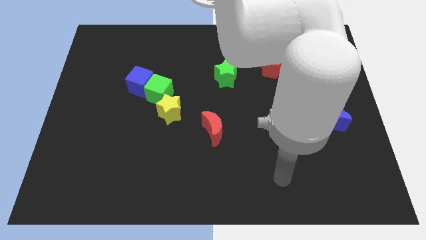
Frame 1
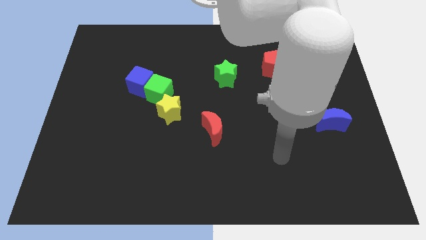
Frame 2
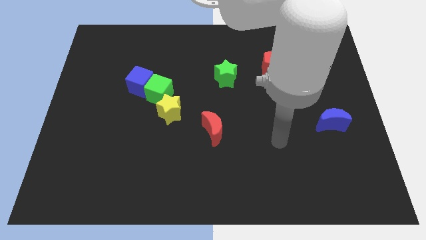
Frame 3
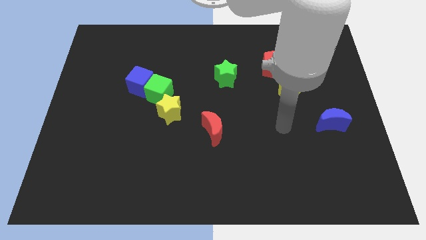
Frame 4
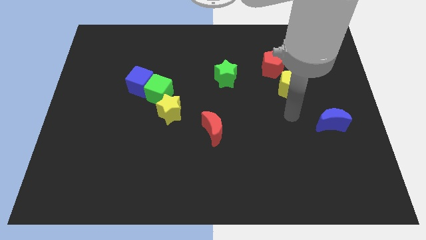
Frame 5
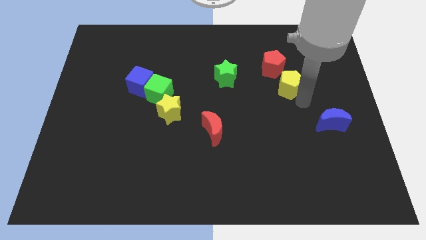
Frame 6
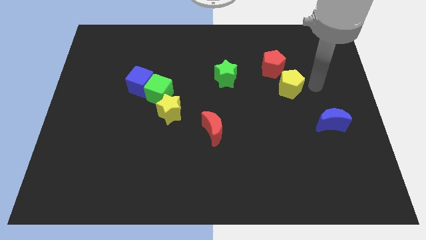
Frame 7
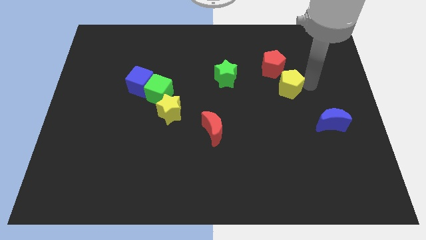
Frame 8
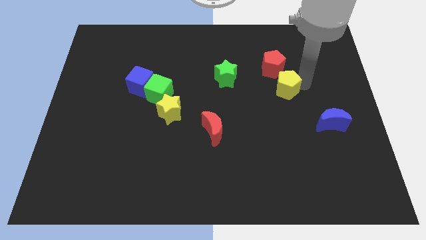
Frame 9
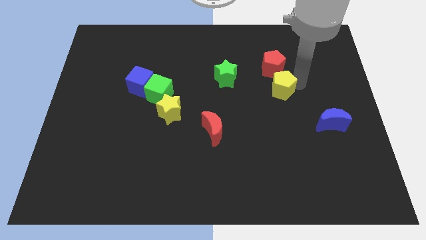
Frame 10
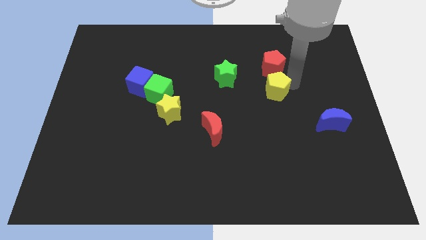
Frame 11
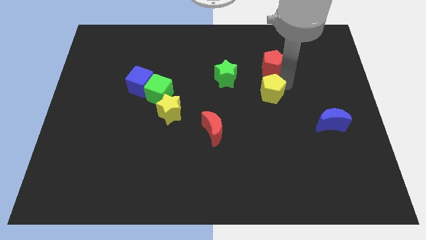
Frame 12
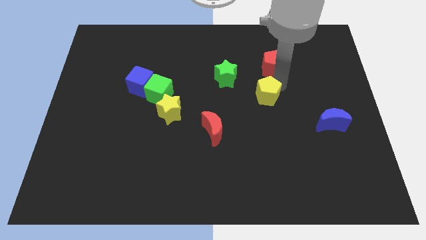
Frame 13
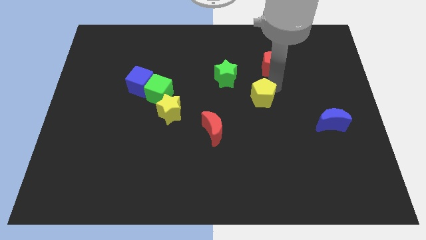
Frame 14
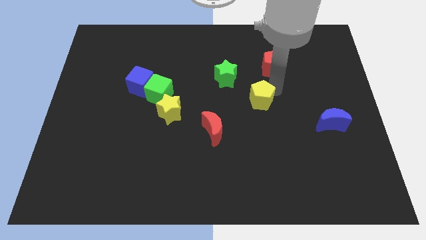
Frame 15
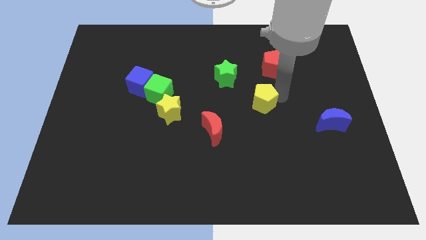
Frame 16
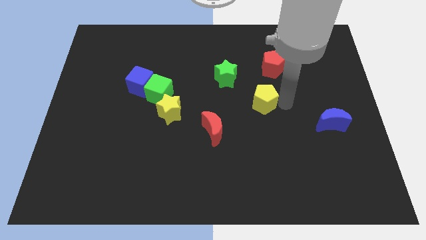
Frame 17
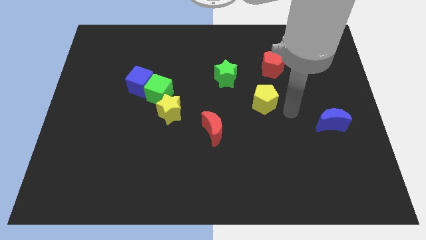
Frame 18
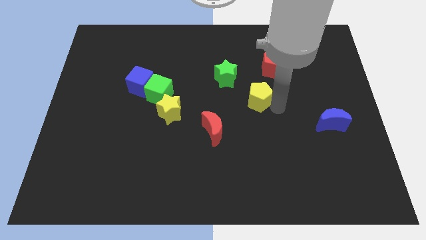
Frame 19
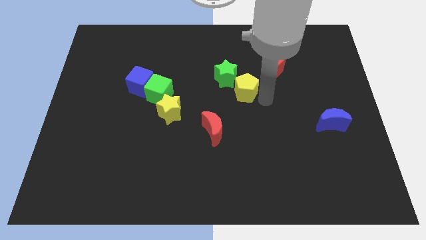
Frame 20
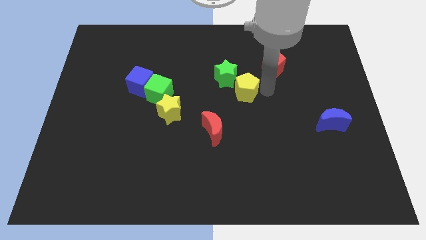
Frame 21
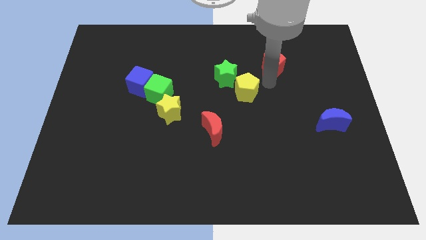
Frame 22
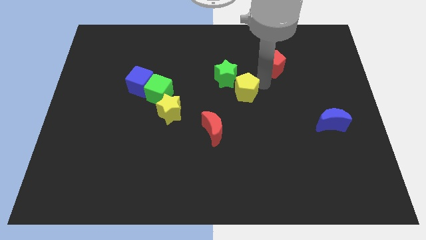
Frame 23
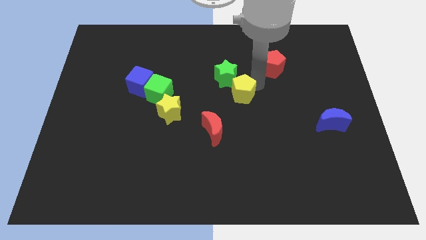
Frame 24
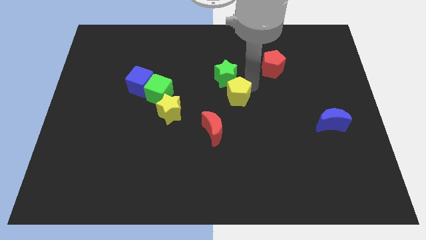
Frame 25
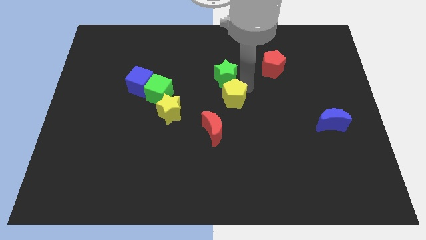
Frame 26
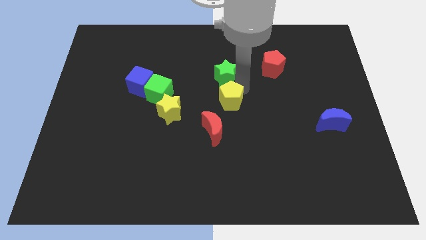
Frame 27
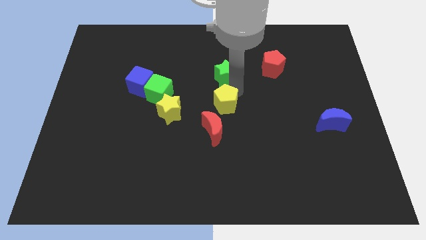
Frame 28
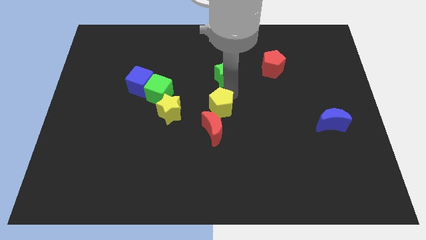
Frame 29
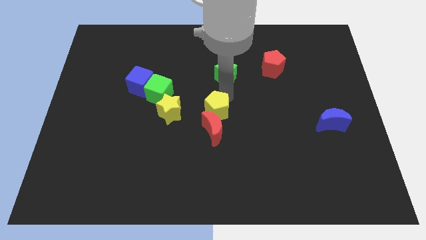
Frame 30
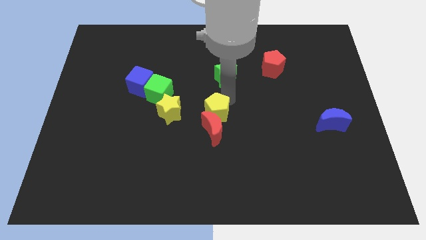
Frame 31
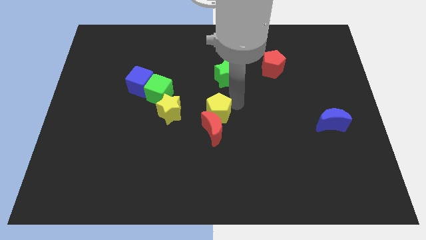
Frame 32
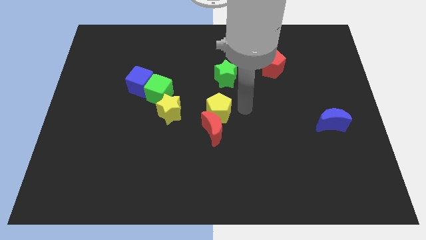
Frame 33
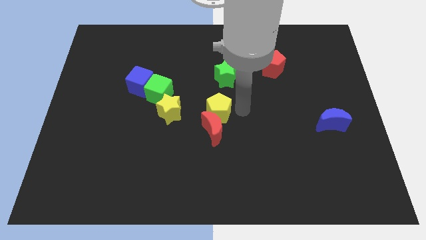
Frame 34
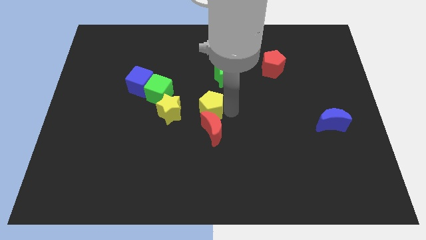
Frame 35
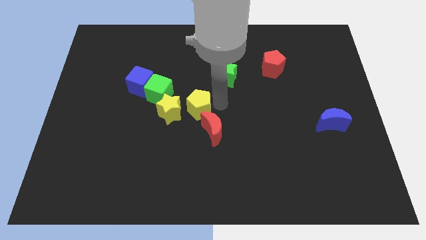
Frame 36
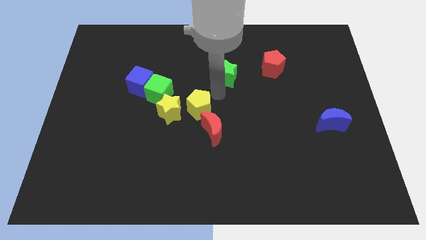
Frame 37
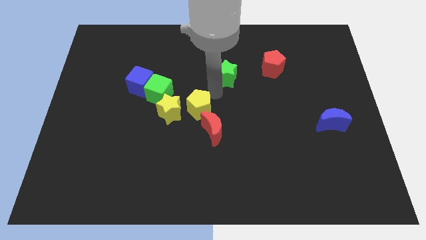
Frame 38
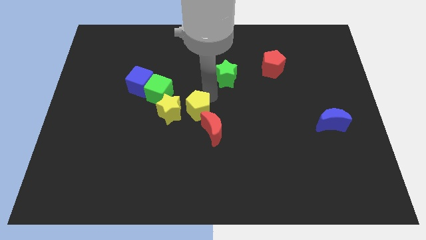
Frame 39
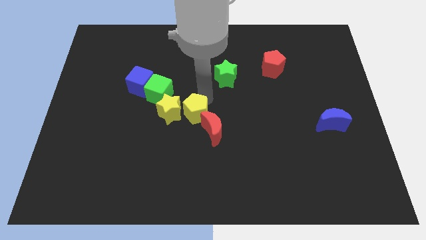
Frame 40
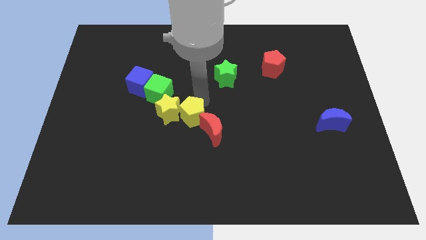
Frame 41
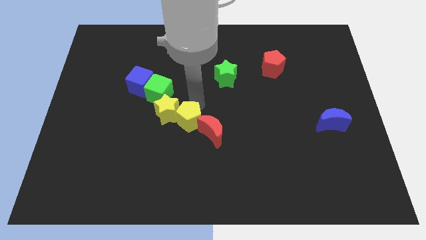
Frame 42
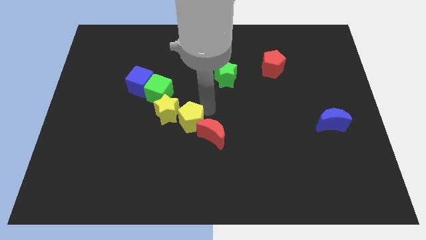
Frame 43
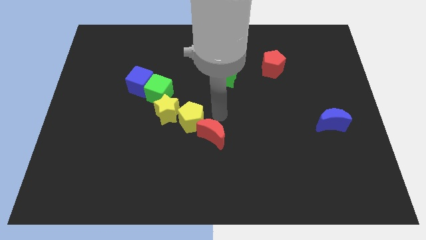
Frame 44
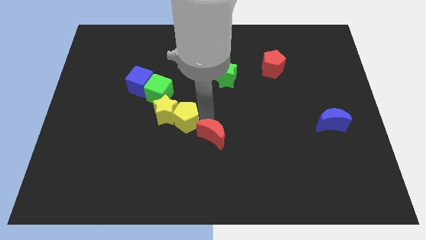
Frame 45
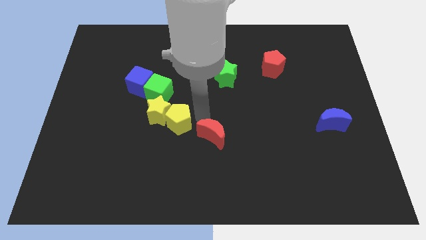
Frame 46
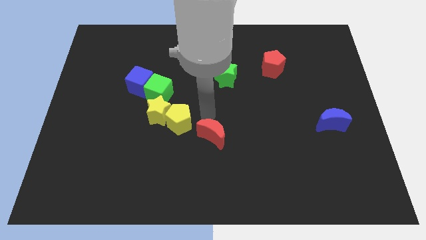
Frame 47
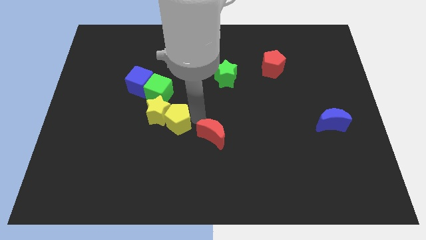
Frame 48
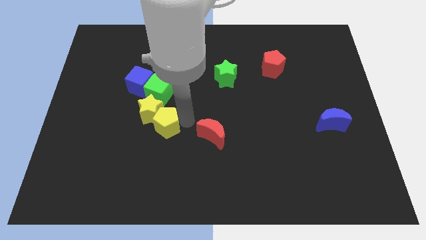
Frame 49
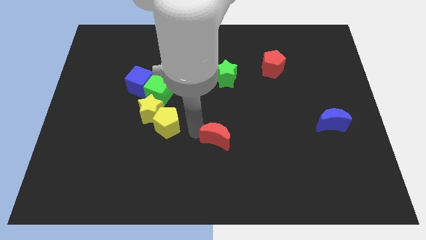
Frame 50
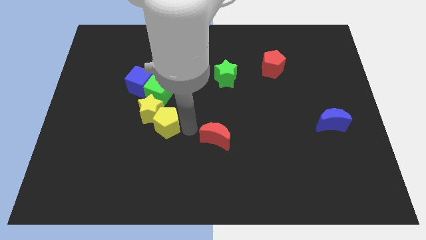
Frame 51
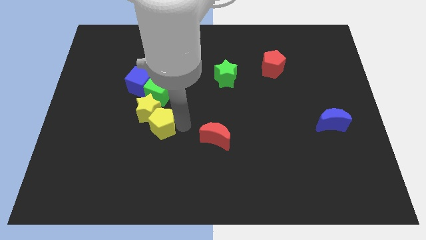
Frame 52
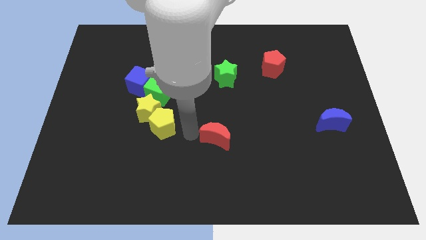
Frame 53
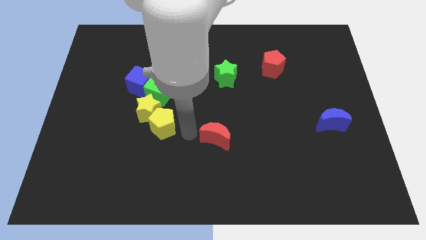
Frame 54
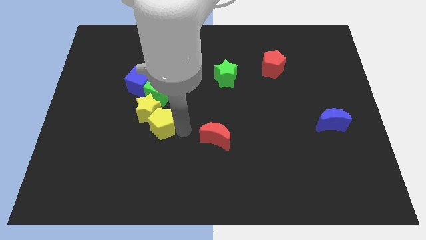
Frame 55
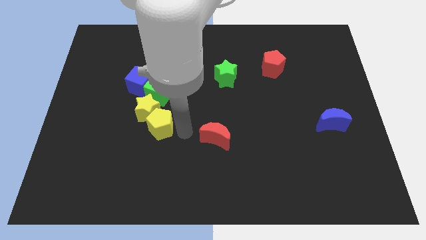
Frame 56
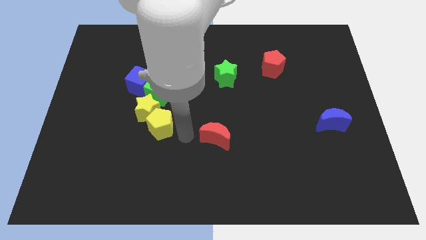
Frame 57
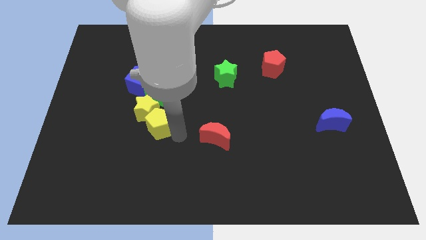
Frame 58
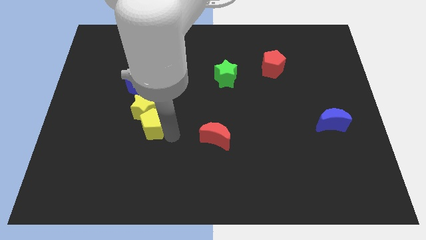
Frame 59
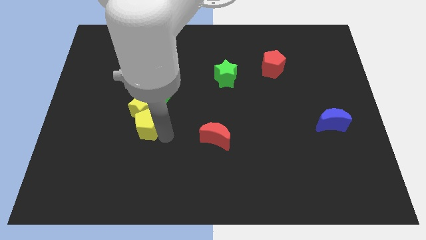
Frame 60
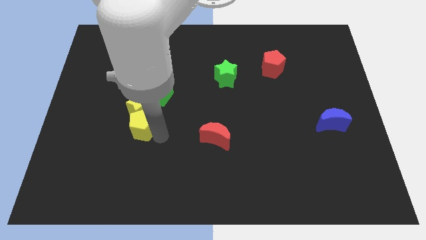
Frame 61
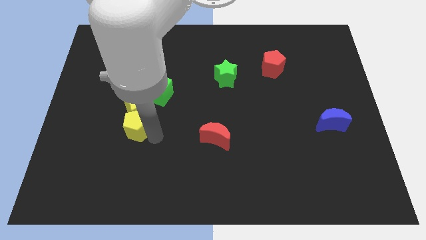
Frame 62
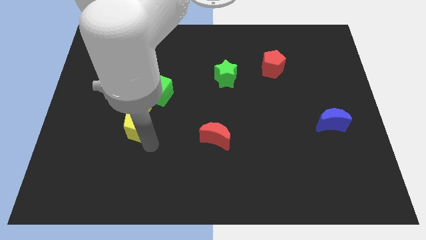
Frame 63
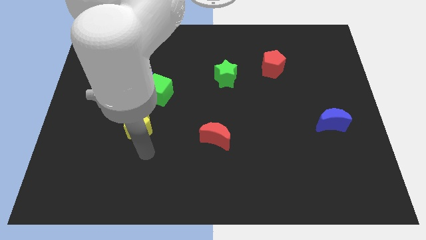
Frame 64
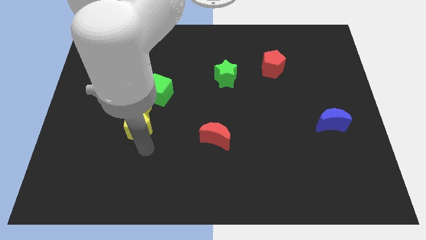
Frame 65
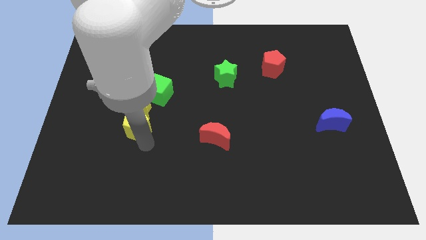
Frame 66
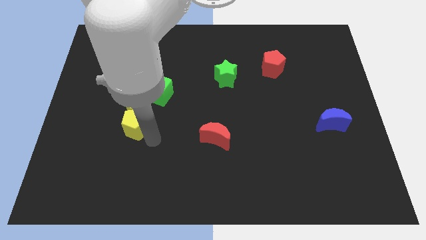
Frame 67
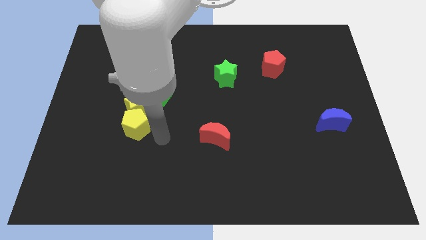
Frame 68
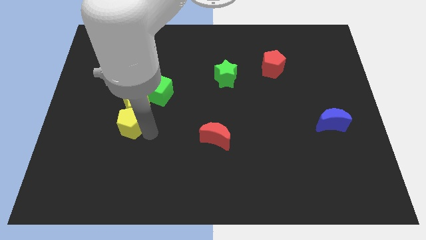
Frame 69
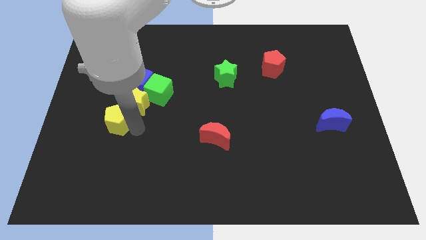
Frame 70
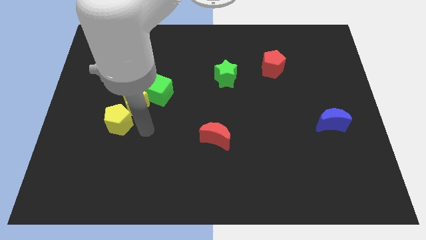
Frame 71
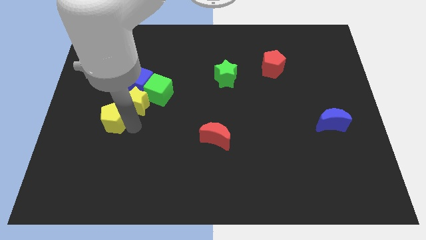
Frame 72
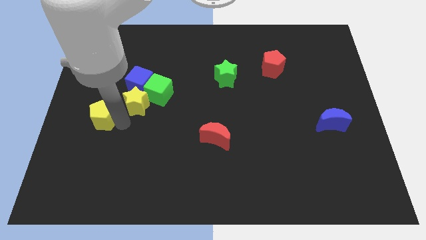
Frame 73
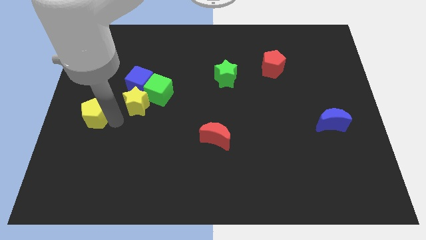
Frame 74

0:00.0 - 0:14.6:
push the yellow pentagon to the center left
